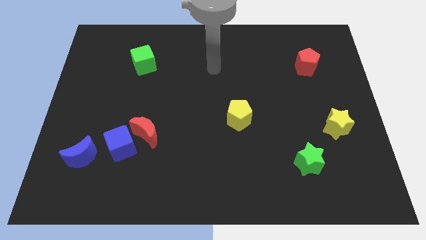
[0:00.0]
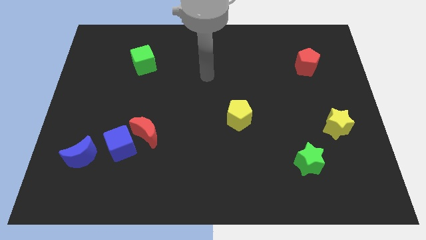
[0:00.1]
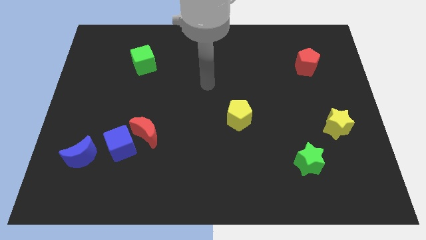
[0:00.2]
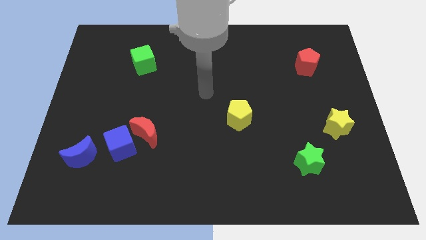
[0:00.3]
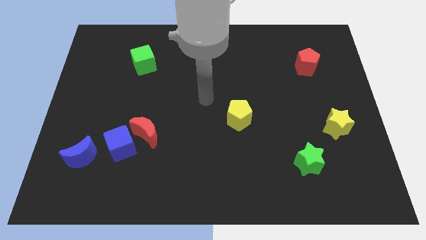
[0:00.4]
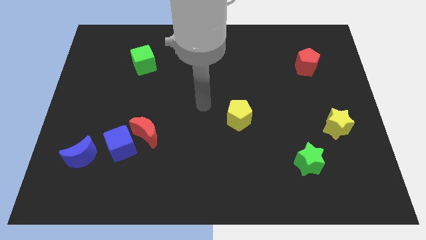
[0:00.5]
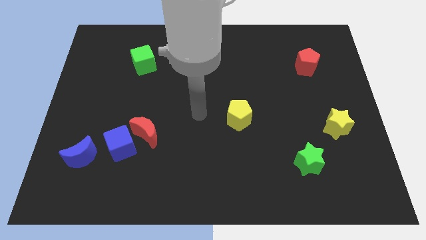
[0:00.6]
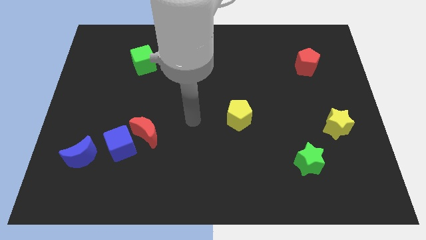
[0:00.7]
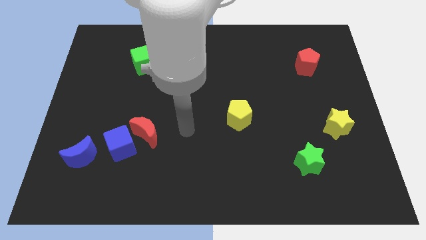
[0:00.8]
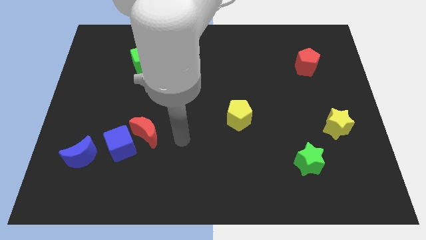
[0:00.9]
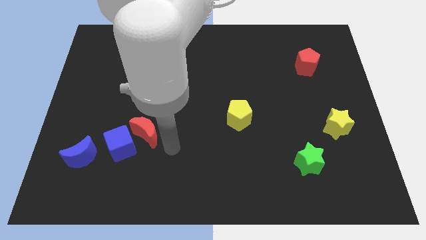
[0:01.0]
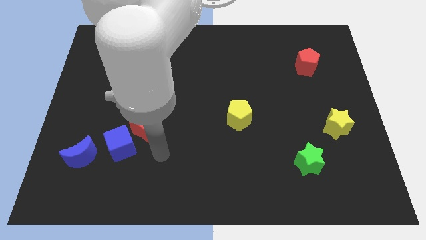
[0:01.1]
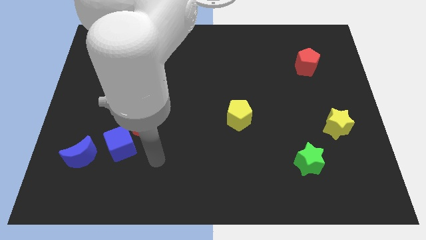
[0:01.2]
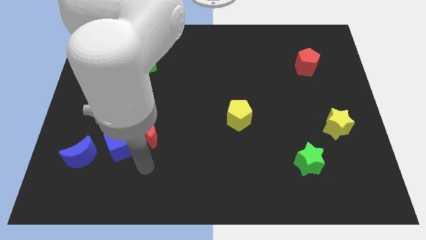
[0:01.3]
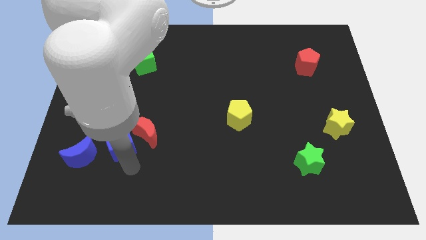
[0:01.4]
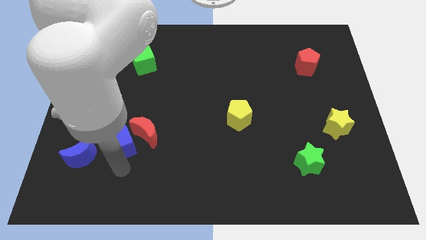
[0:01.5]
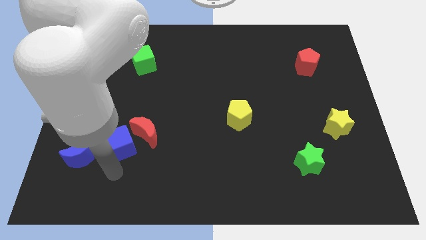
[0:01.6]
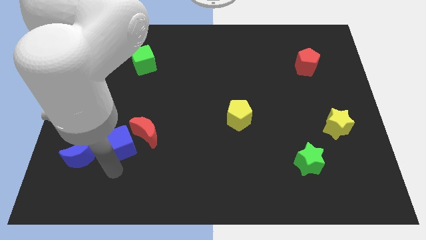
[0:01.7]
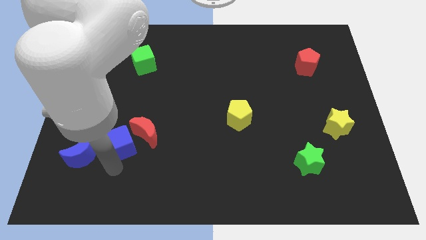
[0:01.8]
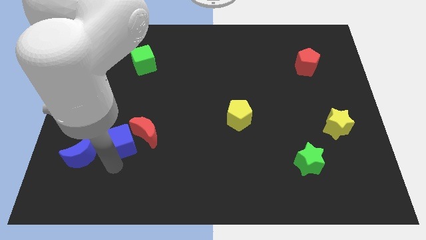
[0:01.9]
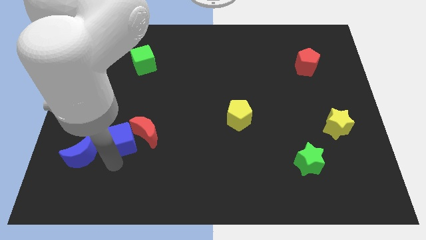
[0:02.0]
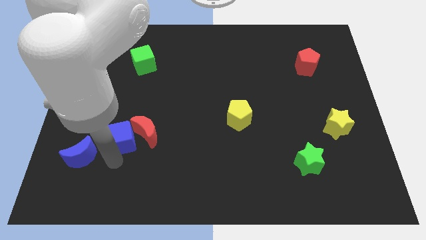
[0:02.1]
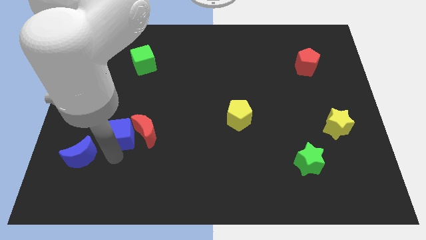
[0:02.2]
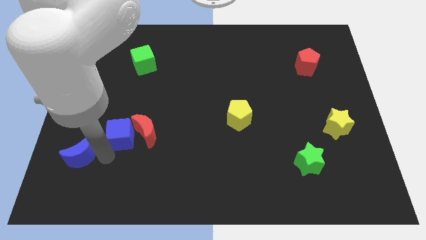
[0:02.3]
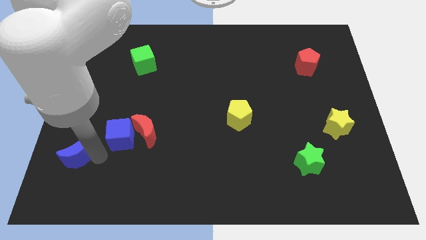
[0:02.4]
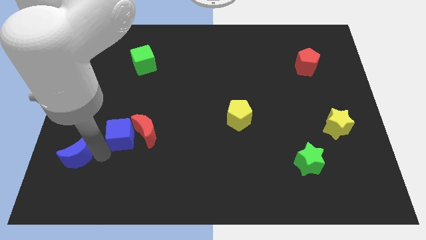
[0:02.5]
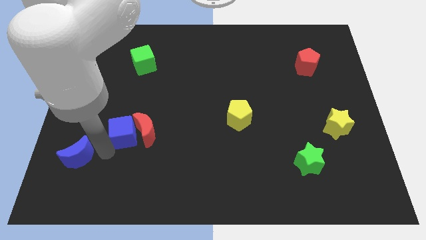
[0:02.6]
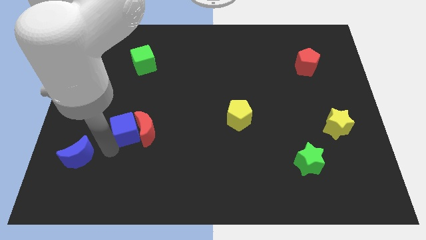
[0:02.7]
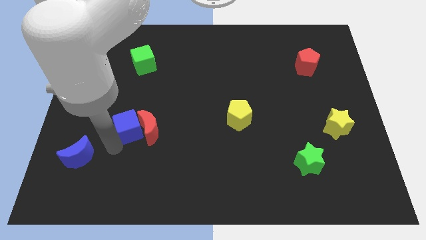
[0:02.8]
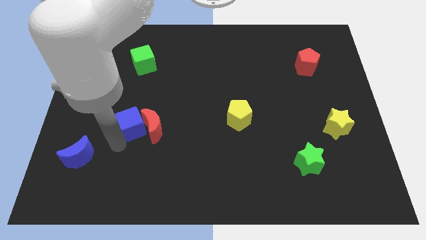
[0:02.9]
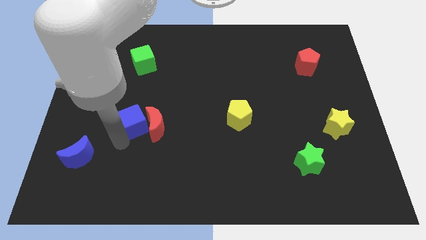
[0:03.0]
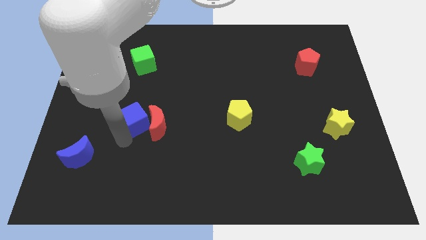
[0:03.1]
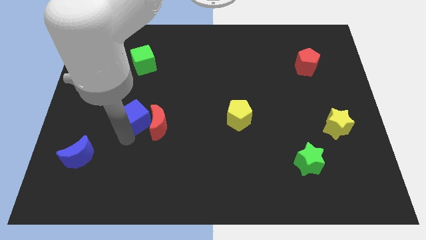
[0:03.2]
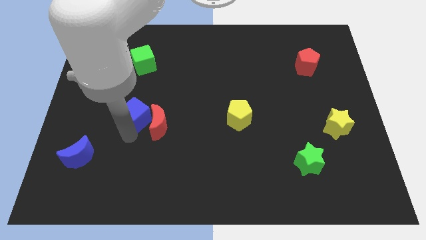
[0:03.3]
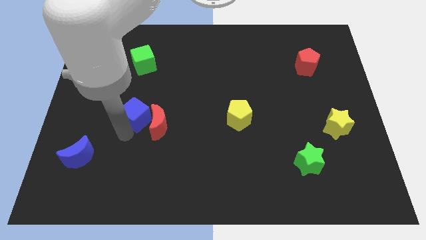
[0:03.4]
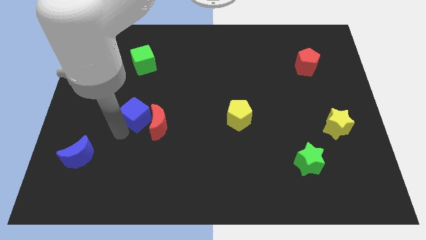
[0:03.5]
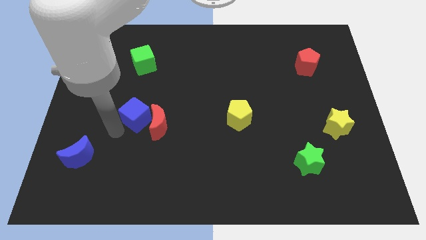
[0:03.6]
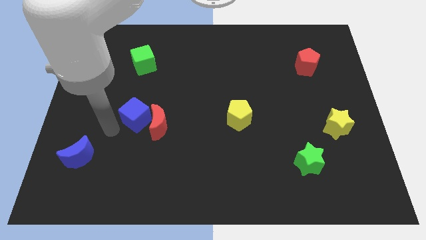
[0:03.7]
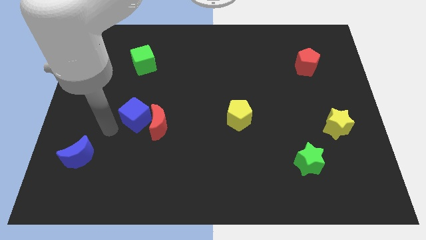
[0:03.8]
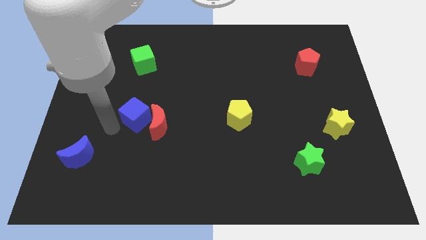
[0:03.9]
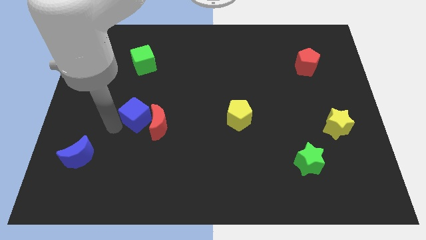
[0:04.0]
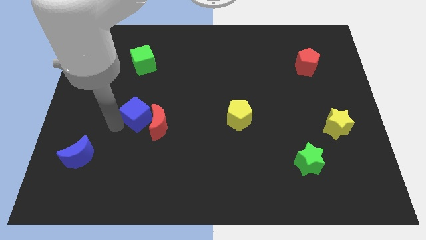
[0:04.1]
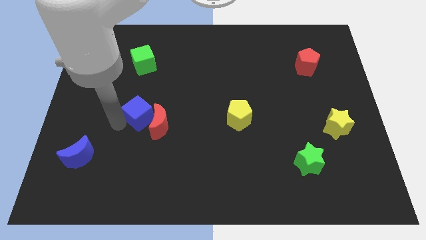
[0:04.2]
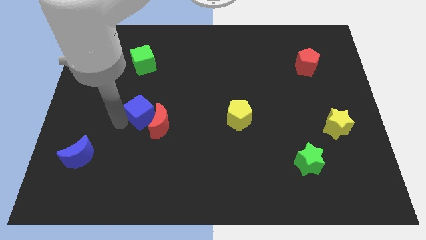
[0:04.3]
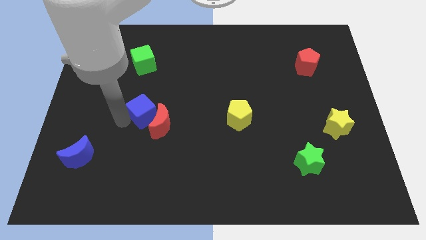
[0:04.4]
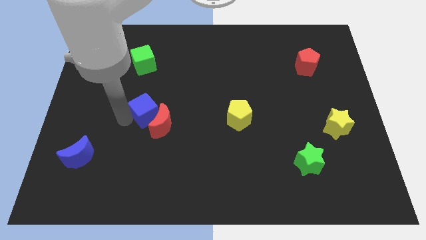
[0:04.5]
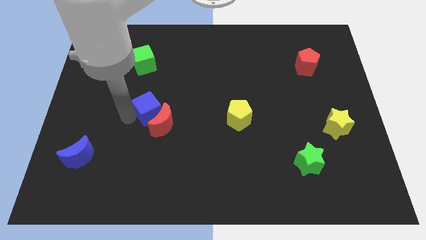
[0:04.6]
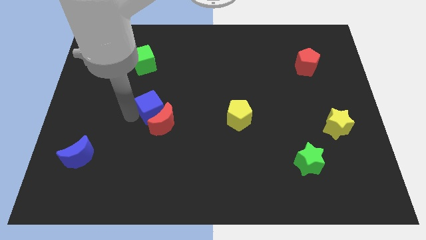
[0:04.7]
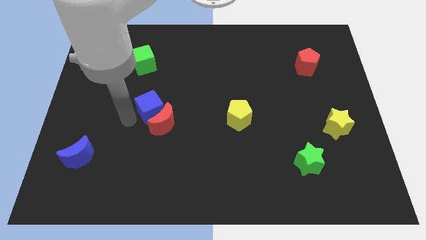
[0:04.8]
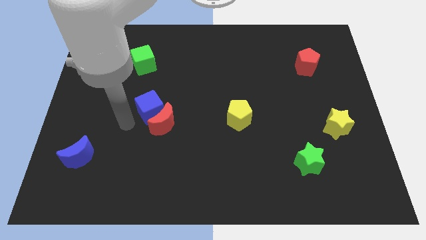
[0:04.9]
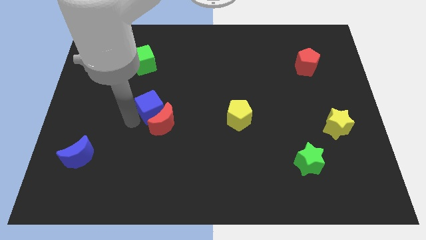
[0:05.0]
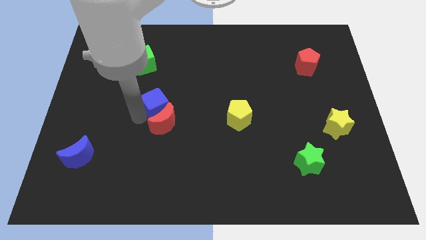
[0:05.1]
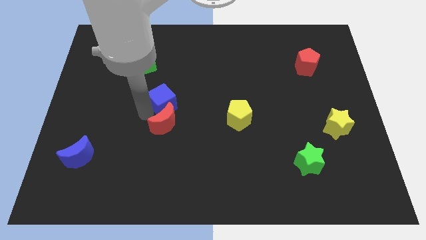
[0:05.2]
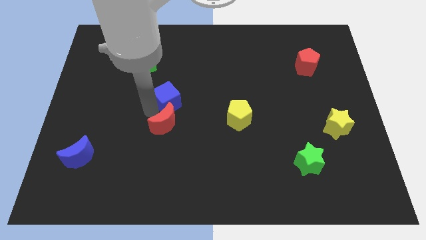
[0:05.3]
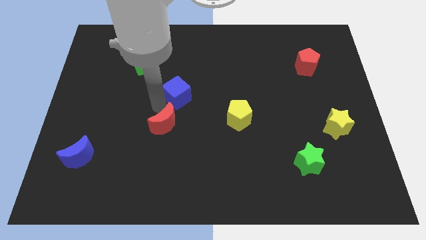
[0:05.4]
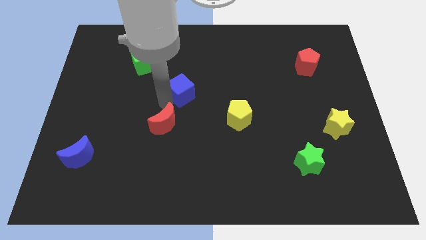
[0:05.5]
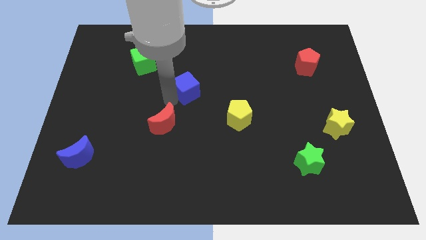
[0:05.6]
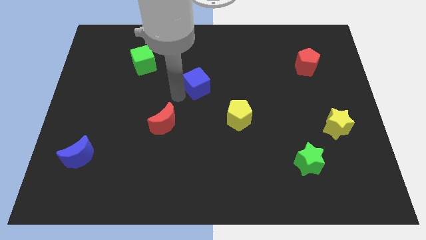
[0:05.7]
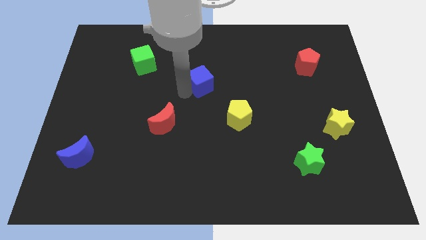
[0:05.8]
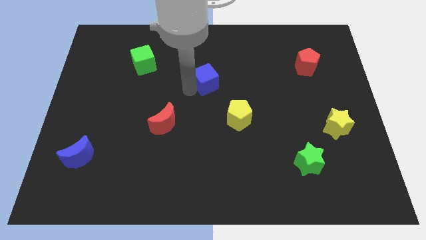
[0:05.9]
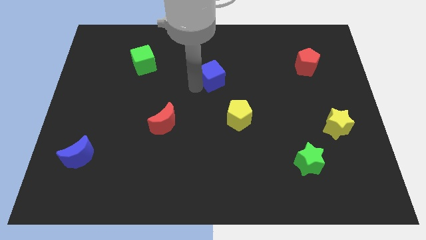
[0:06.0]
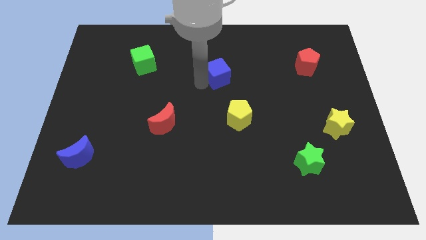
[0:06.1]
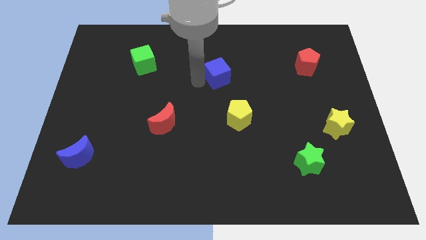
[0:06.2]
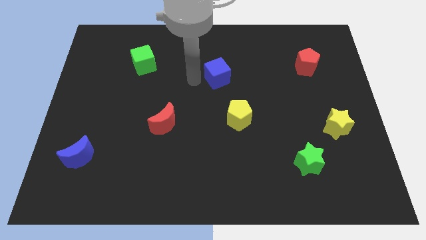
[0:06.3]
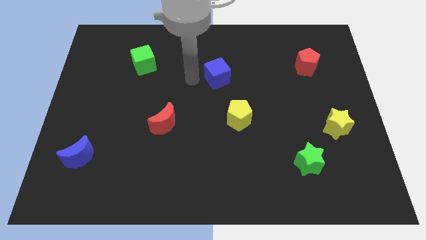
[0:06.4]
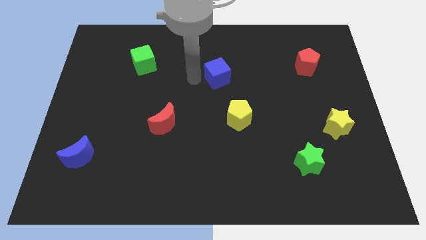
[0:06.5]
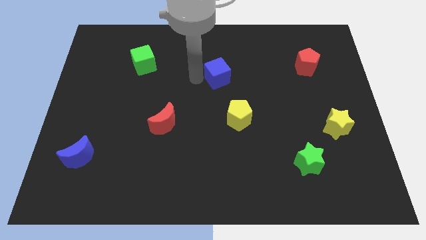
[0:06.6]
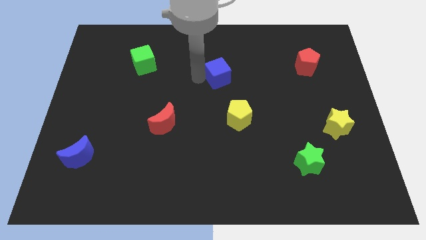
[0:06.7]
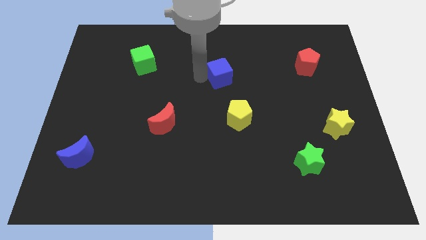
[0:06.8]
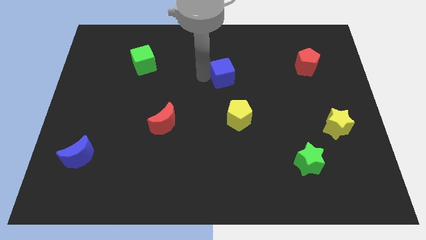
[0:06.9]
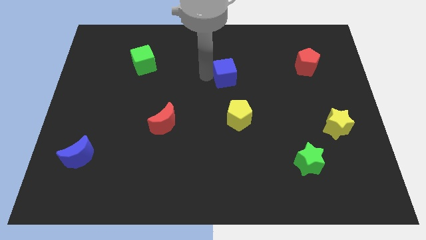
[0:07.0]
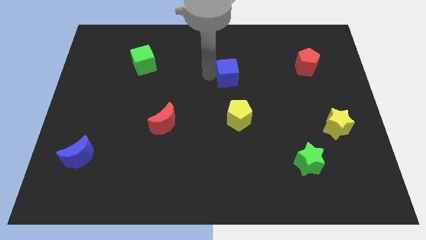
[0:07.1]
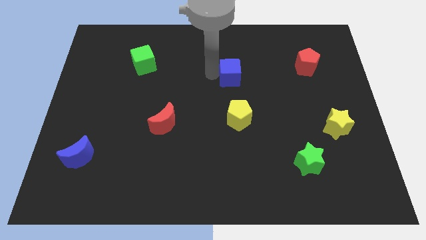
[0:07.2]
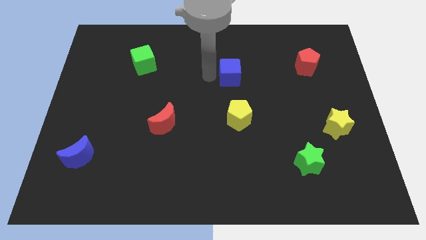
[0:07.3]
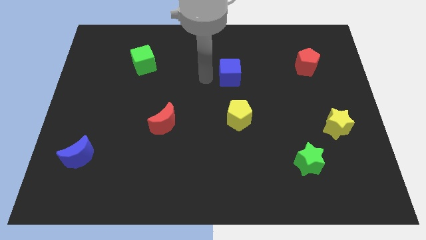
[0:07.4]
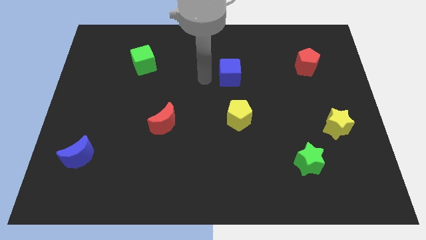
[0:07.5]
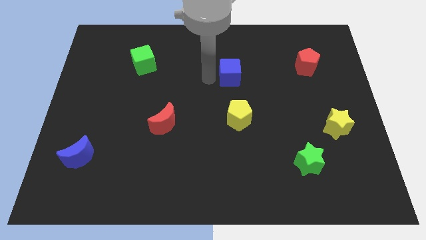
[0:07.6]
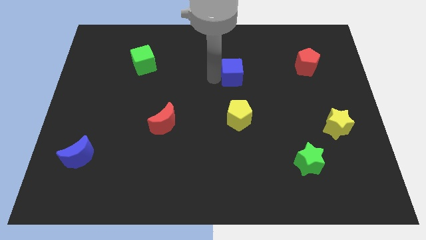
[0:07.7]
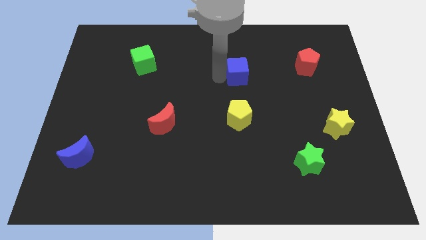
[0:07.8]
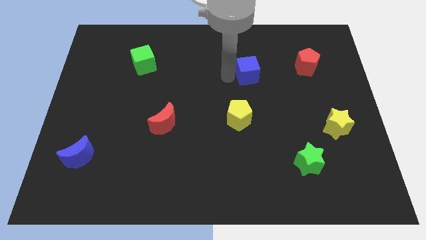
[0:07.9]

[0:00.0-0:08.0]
push the blue cube to the left of the red pentagon
